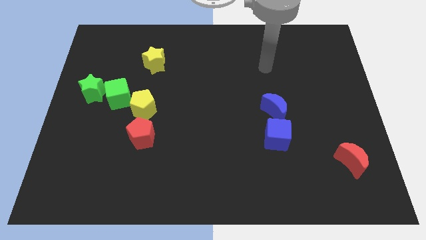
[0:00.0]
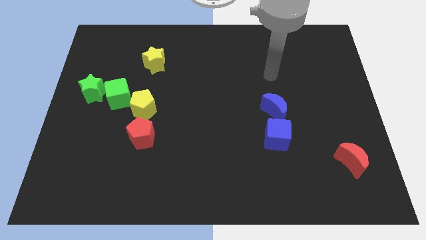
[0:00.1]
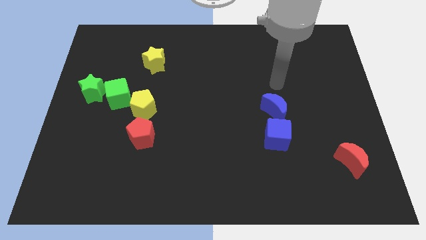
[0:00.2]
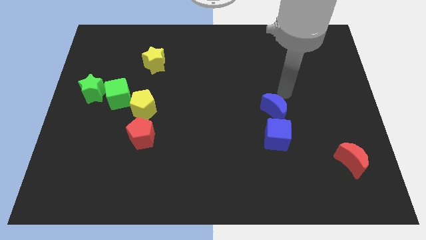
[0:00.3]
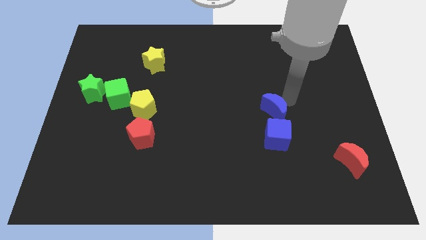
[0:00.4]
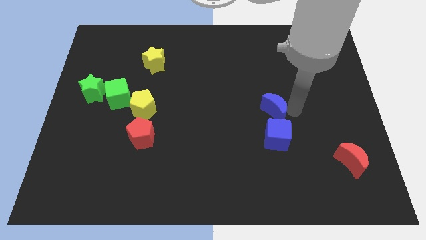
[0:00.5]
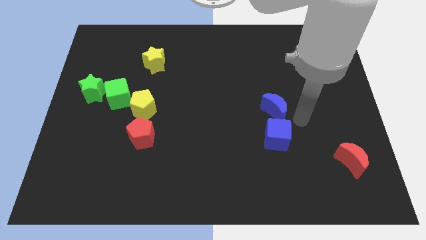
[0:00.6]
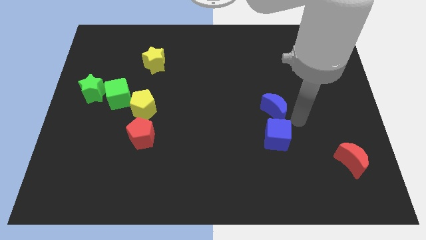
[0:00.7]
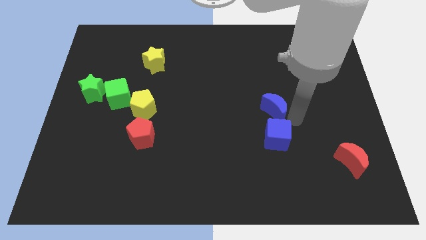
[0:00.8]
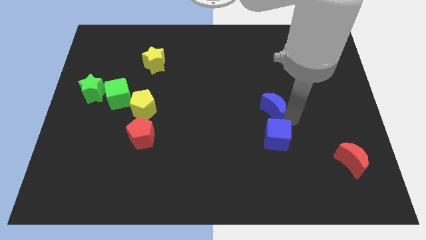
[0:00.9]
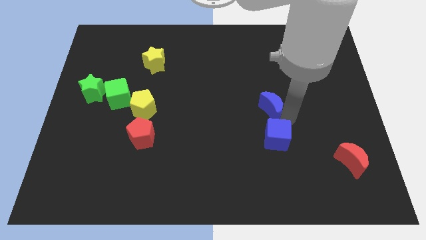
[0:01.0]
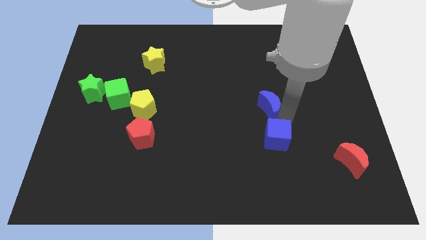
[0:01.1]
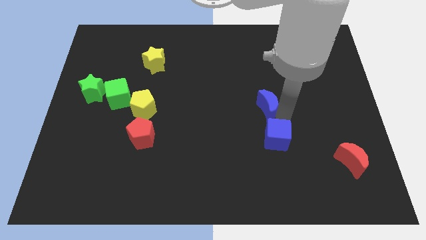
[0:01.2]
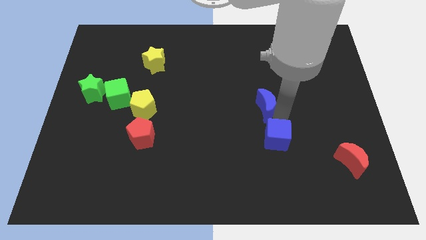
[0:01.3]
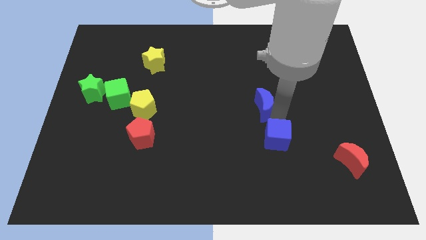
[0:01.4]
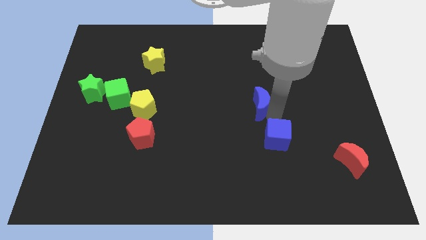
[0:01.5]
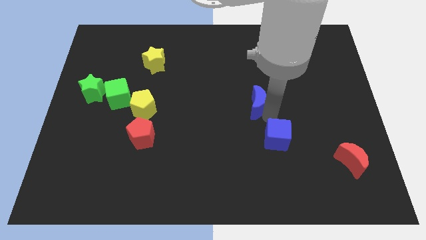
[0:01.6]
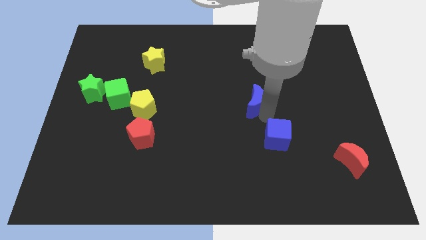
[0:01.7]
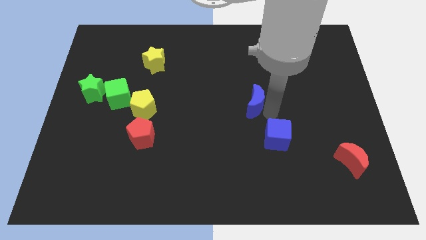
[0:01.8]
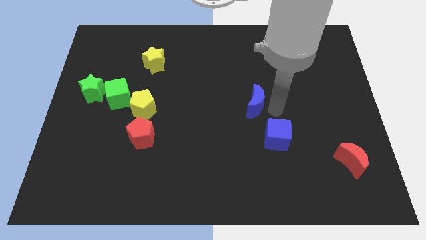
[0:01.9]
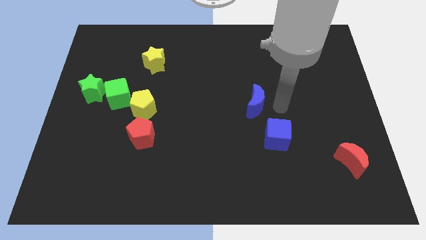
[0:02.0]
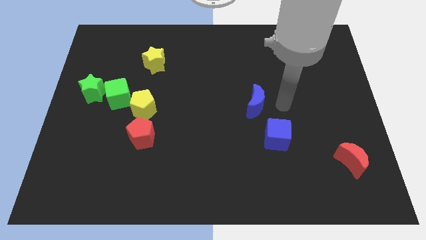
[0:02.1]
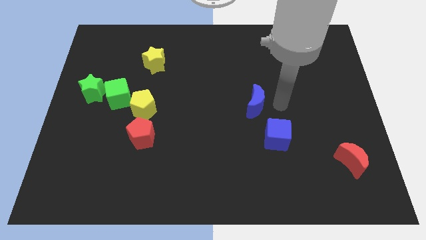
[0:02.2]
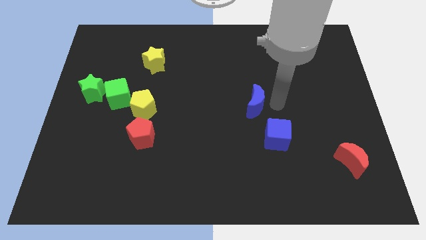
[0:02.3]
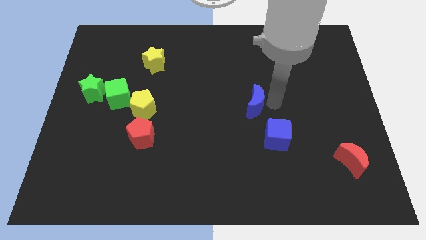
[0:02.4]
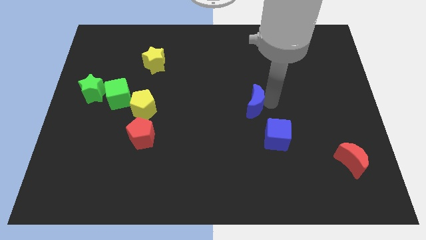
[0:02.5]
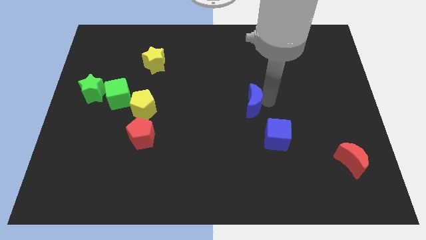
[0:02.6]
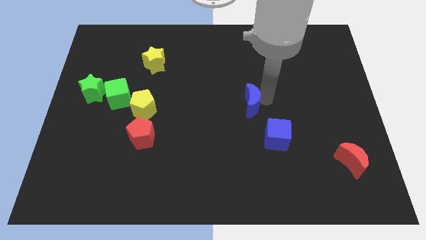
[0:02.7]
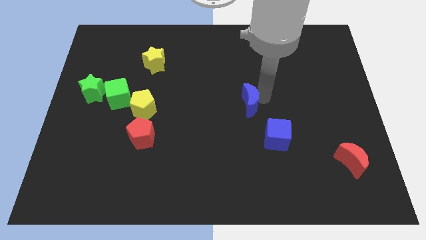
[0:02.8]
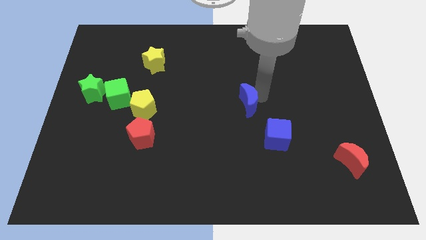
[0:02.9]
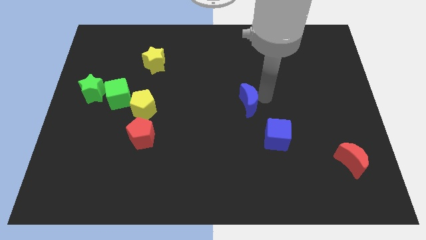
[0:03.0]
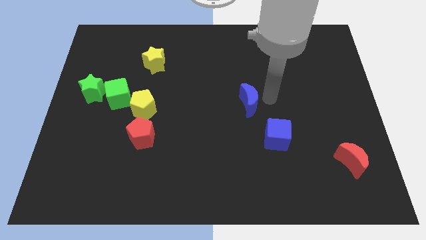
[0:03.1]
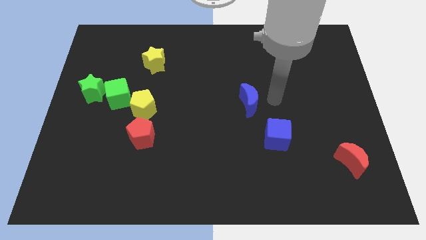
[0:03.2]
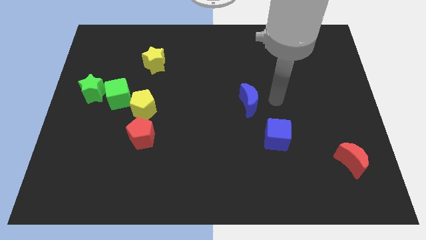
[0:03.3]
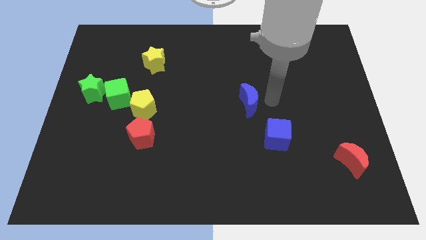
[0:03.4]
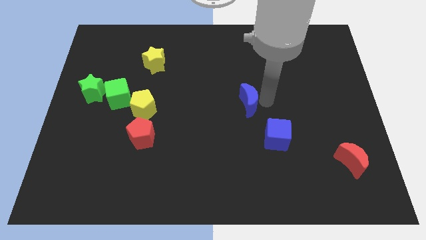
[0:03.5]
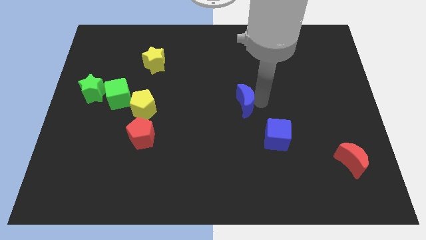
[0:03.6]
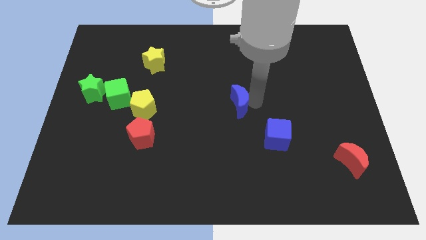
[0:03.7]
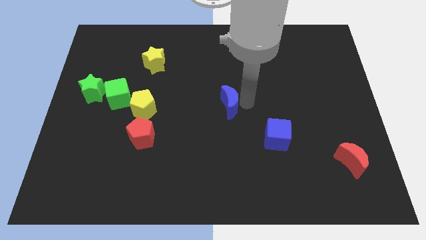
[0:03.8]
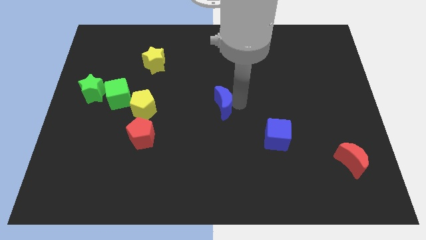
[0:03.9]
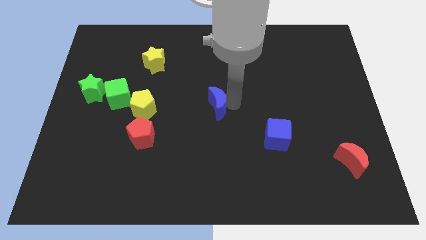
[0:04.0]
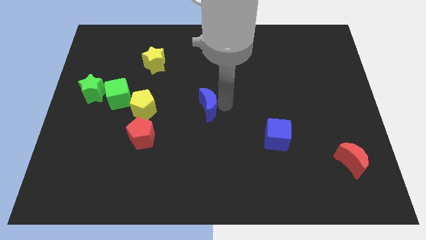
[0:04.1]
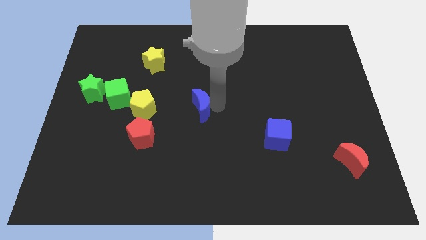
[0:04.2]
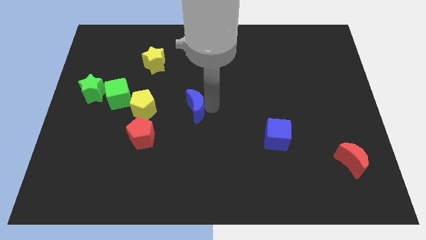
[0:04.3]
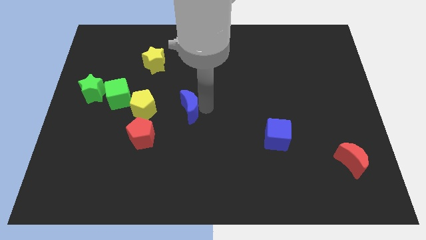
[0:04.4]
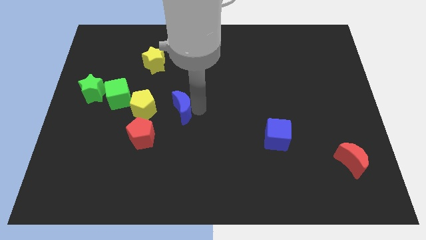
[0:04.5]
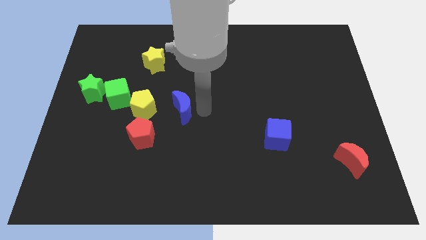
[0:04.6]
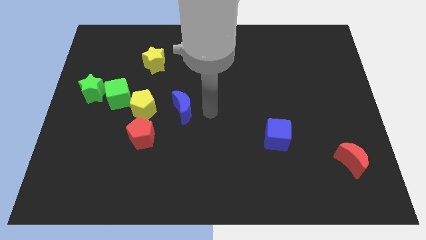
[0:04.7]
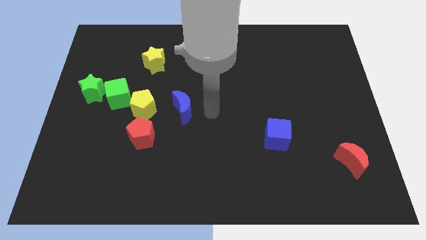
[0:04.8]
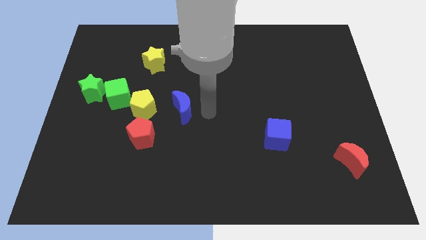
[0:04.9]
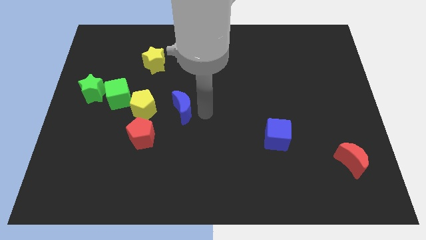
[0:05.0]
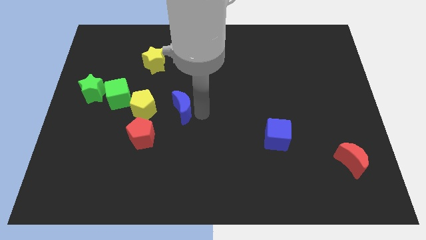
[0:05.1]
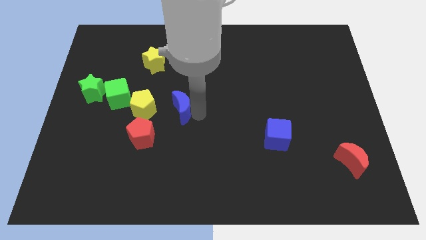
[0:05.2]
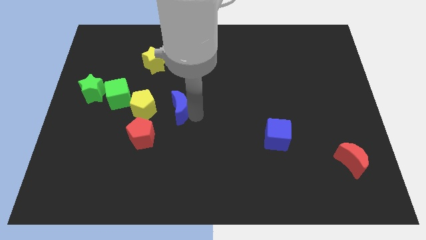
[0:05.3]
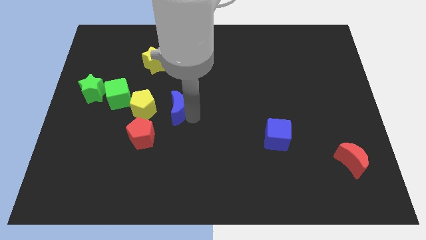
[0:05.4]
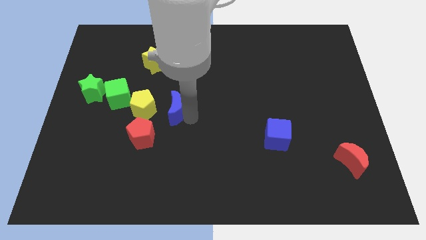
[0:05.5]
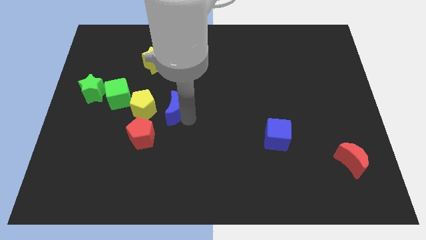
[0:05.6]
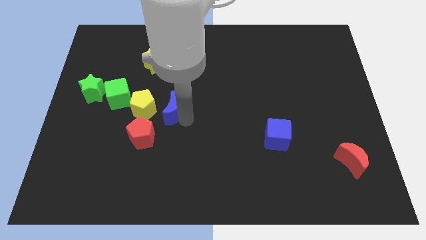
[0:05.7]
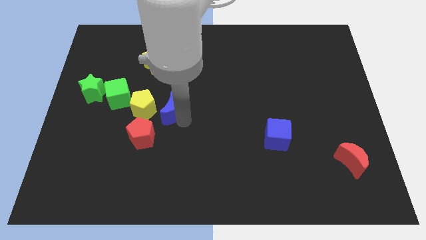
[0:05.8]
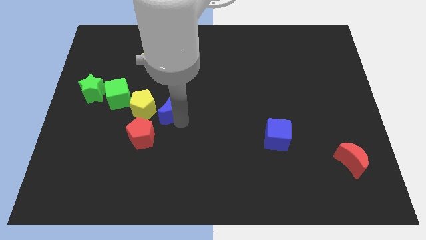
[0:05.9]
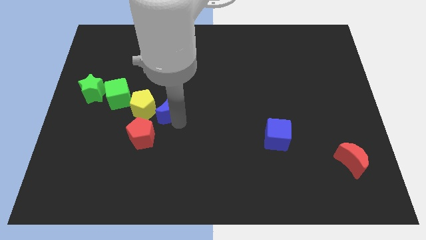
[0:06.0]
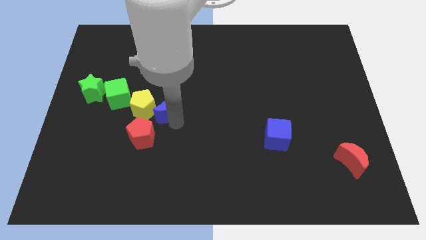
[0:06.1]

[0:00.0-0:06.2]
push the blue moon next to the yellow pentagon

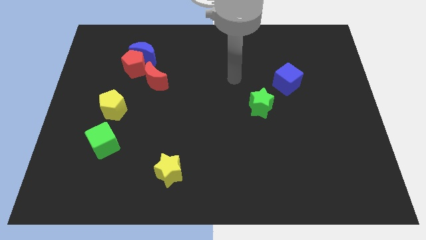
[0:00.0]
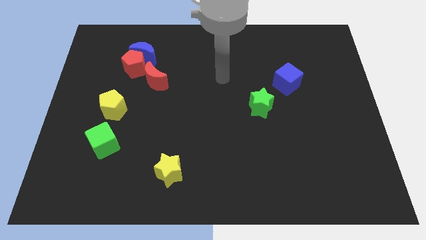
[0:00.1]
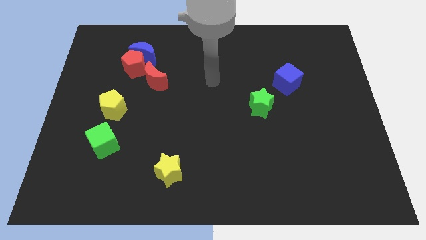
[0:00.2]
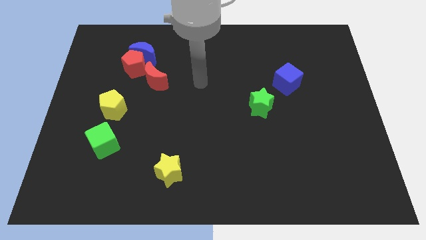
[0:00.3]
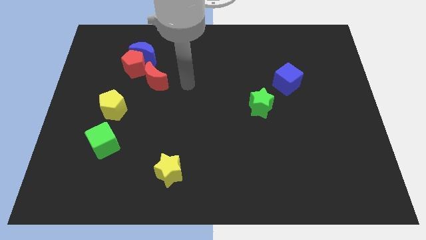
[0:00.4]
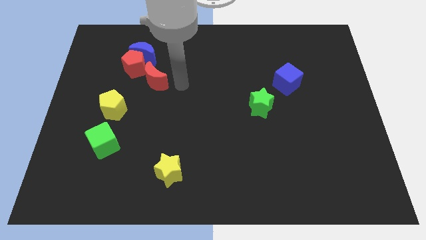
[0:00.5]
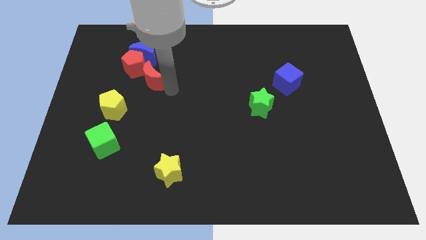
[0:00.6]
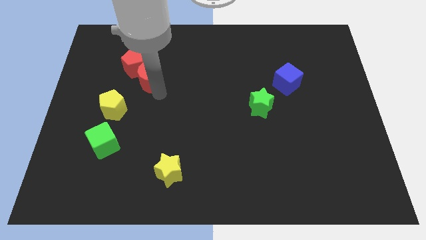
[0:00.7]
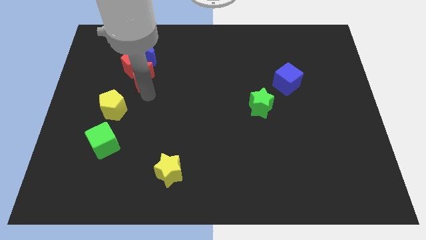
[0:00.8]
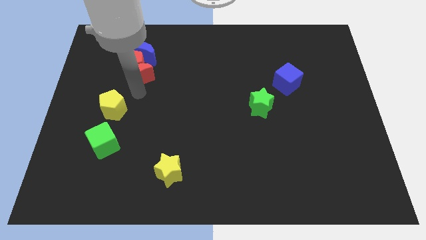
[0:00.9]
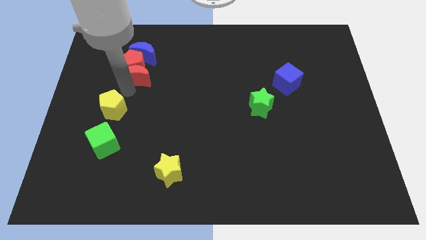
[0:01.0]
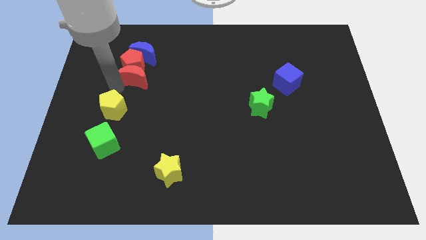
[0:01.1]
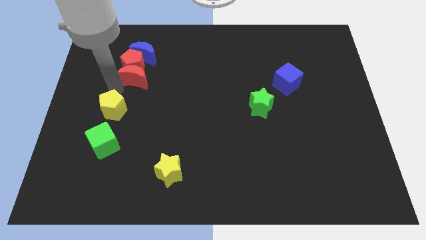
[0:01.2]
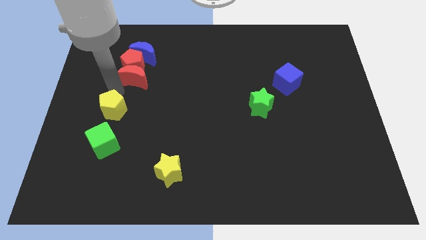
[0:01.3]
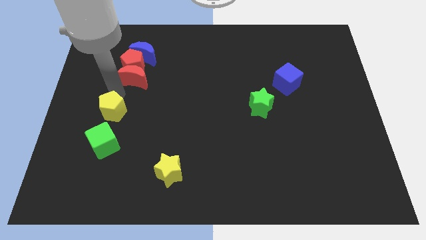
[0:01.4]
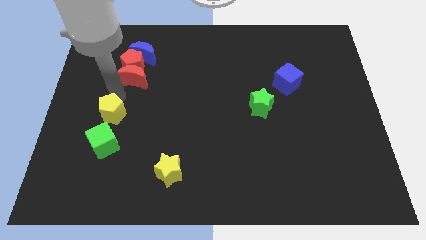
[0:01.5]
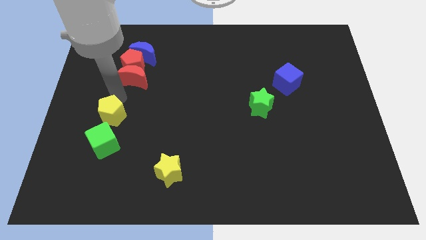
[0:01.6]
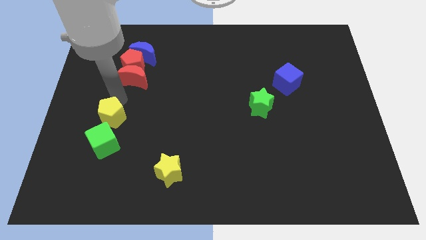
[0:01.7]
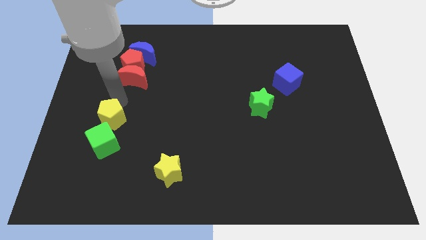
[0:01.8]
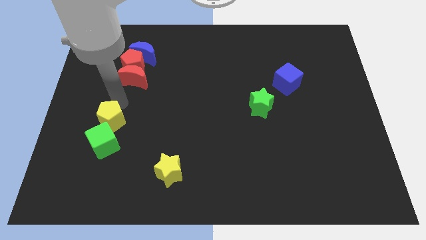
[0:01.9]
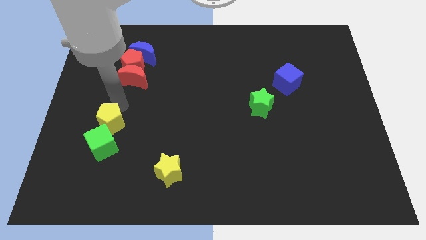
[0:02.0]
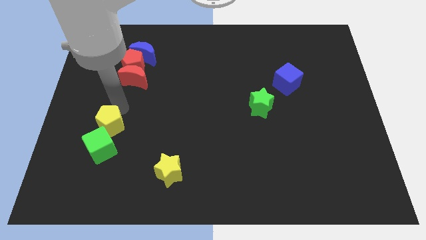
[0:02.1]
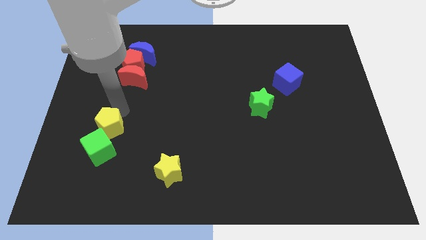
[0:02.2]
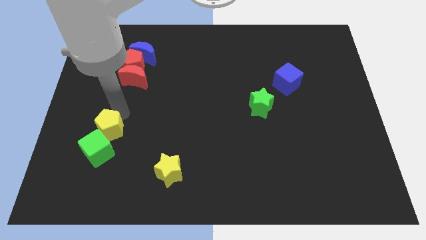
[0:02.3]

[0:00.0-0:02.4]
push the yellow pentagon towards the green cube
